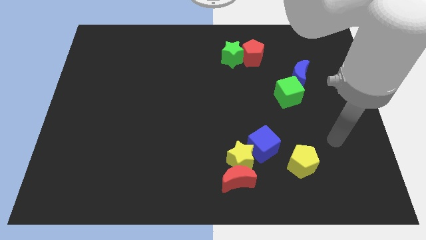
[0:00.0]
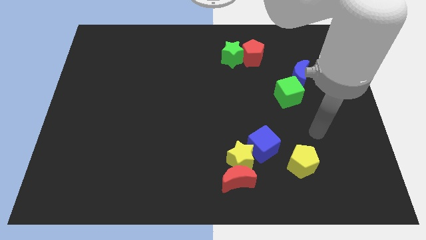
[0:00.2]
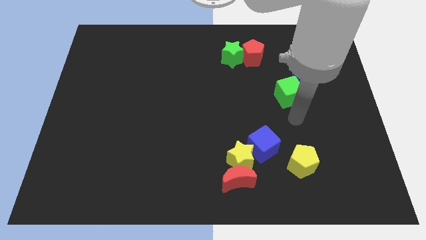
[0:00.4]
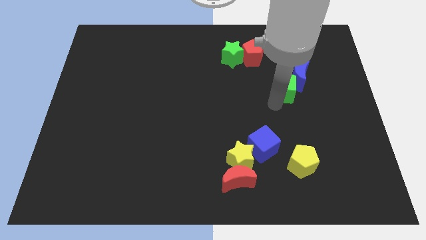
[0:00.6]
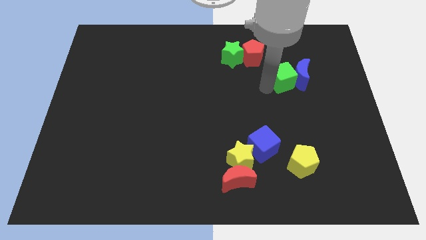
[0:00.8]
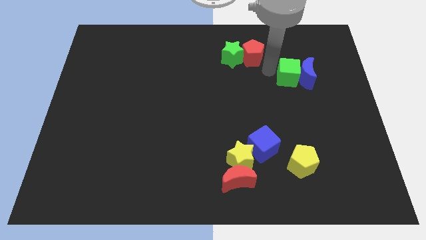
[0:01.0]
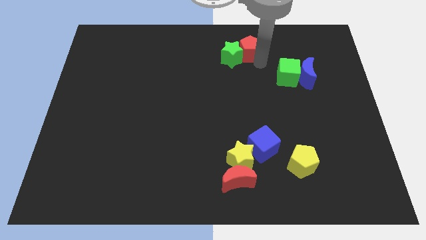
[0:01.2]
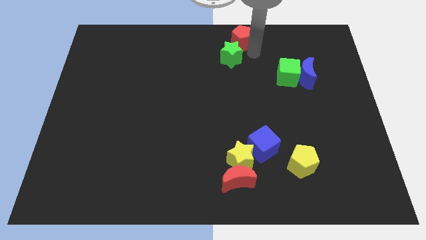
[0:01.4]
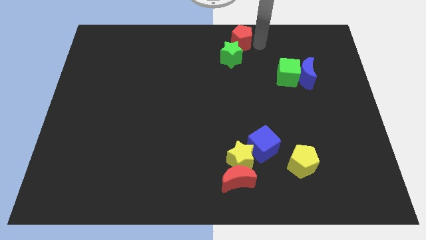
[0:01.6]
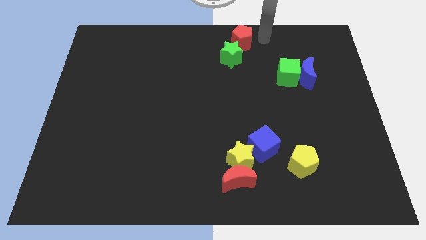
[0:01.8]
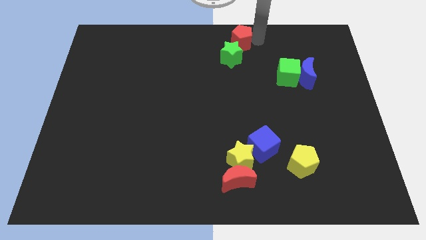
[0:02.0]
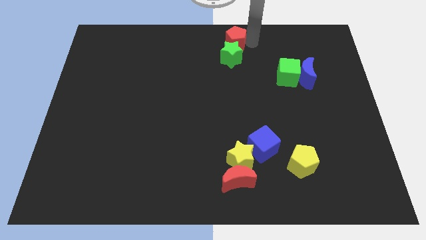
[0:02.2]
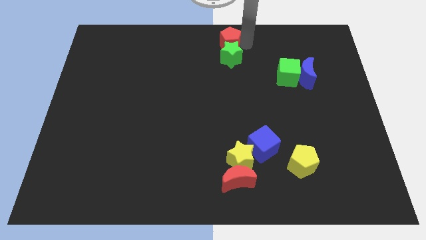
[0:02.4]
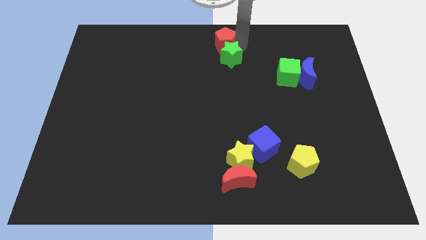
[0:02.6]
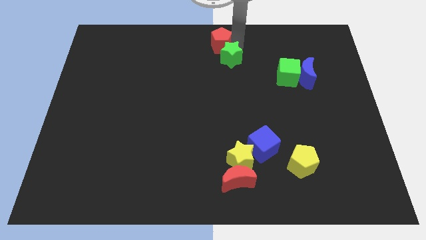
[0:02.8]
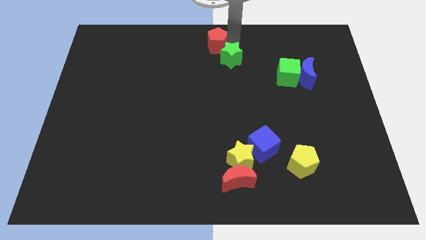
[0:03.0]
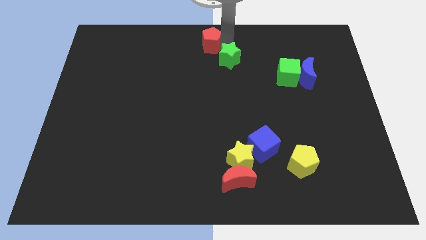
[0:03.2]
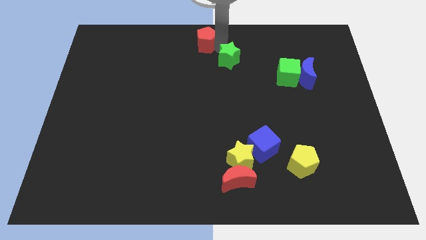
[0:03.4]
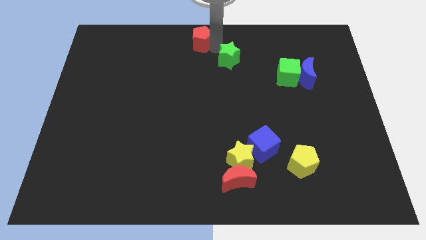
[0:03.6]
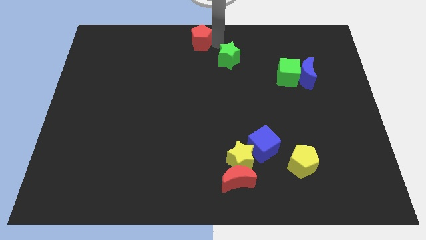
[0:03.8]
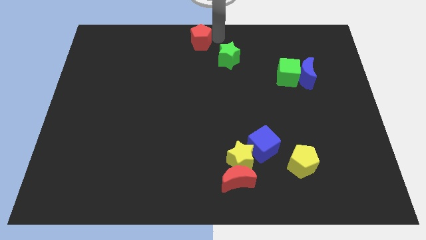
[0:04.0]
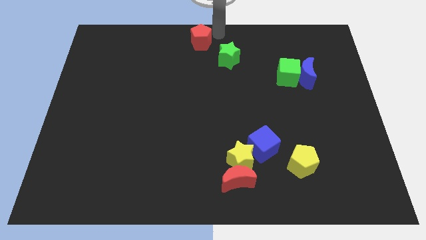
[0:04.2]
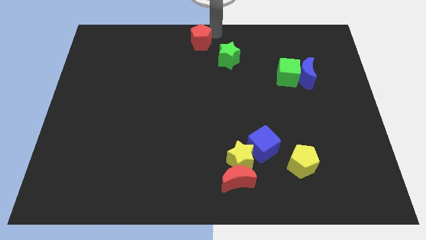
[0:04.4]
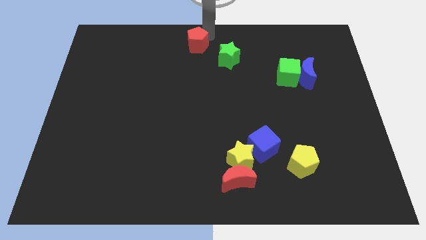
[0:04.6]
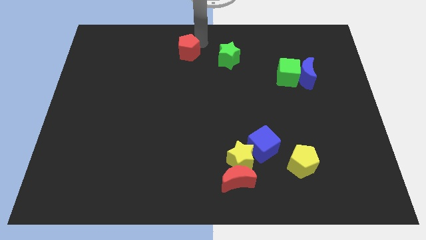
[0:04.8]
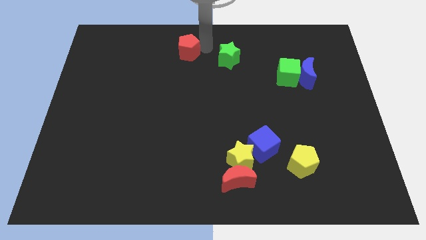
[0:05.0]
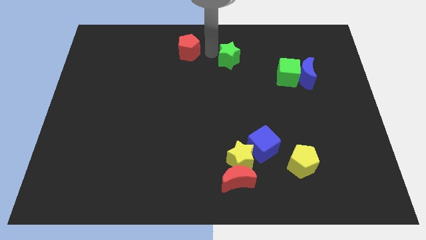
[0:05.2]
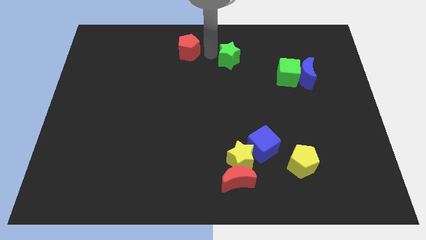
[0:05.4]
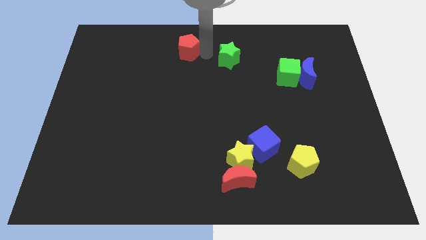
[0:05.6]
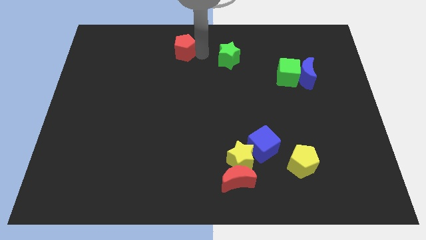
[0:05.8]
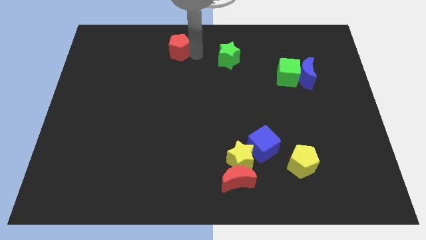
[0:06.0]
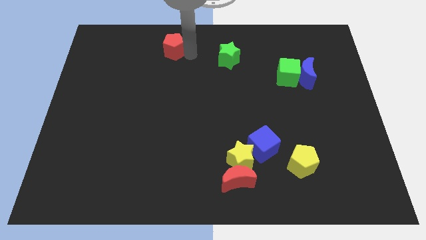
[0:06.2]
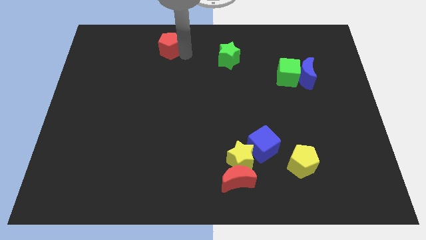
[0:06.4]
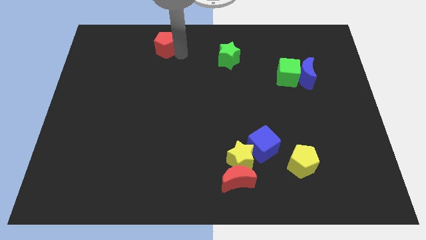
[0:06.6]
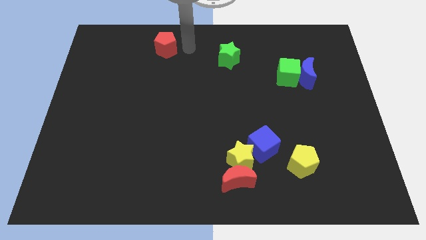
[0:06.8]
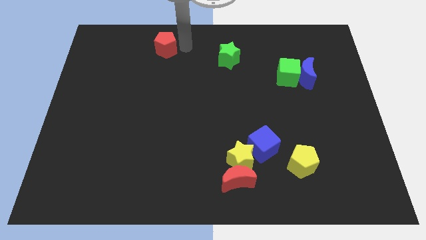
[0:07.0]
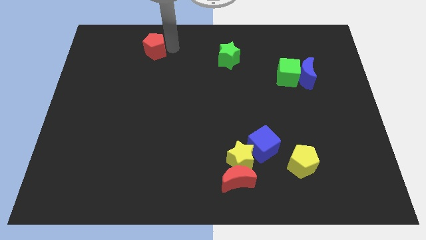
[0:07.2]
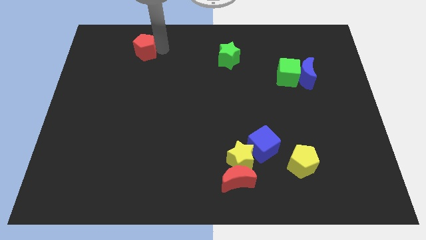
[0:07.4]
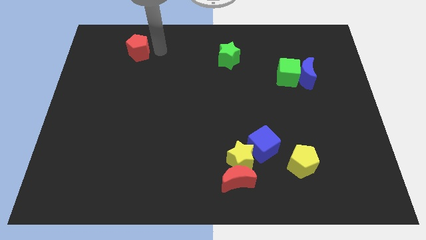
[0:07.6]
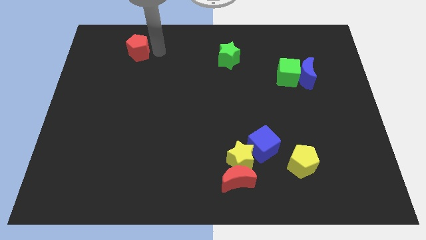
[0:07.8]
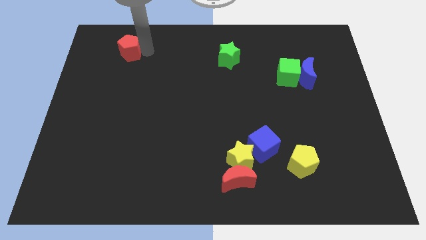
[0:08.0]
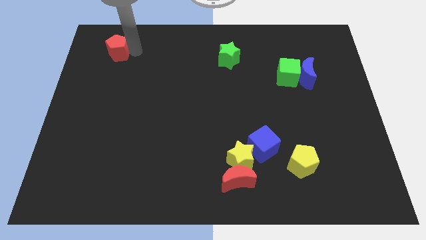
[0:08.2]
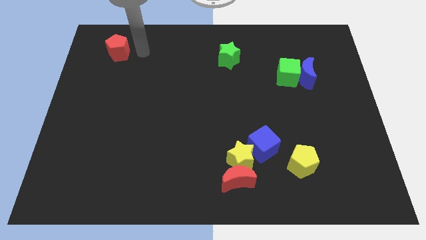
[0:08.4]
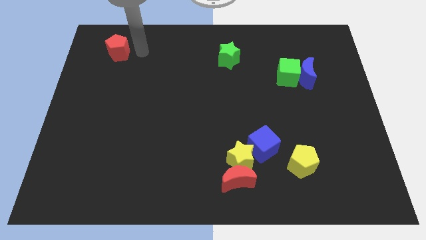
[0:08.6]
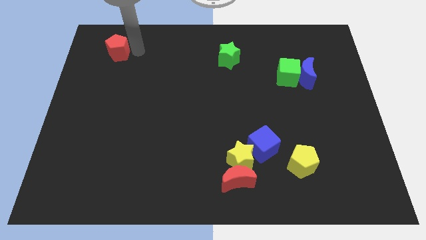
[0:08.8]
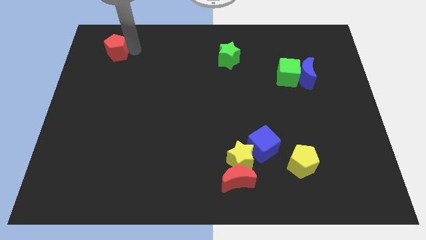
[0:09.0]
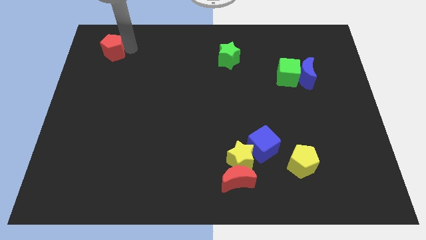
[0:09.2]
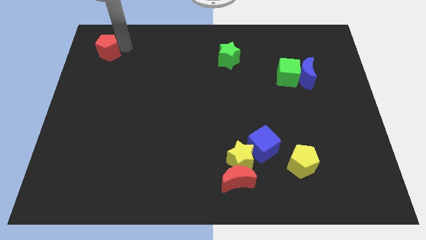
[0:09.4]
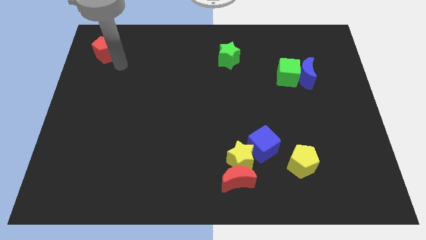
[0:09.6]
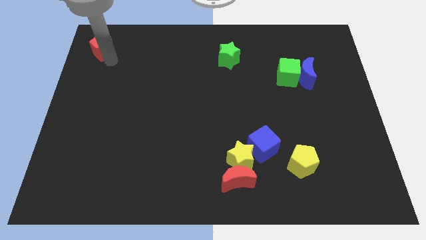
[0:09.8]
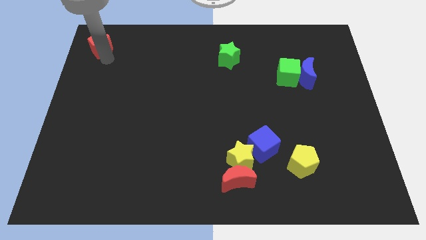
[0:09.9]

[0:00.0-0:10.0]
move the red pentagon to the upper left corner

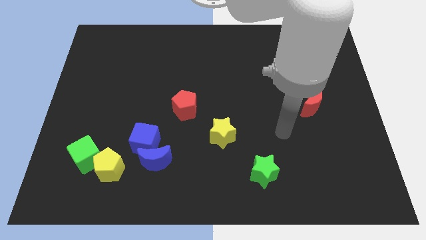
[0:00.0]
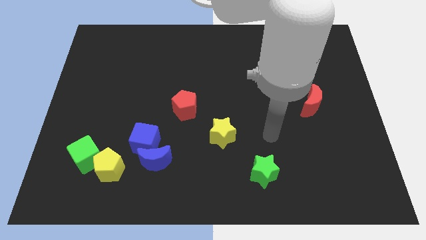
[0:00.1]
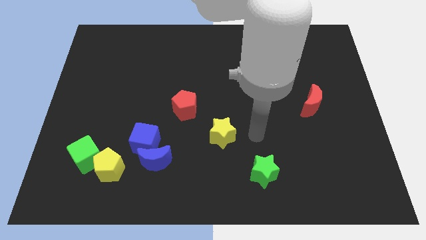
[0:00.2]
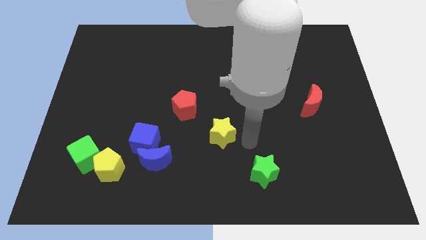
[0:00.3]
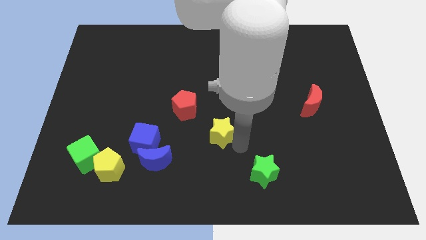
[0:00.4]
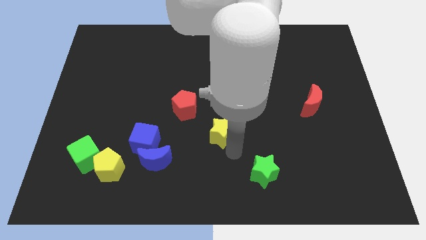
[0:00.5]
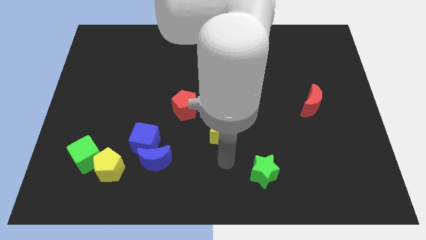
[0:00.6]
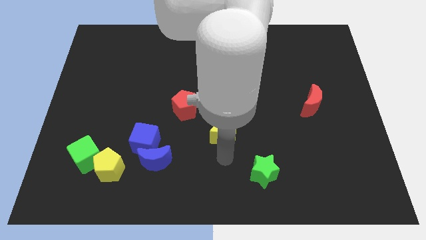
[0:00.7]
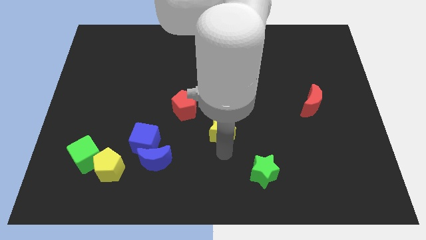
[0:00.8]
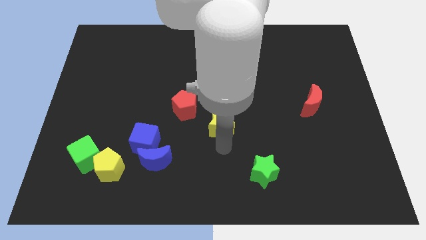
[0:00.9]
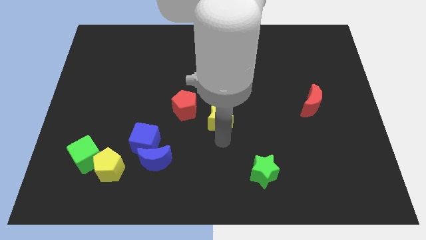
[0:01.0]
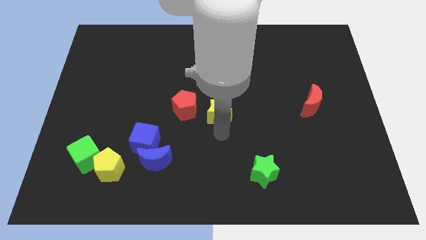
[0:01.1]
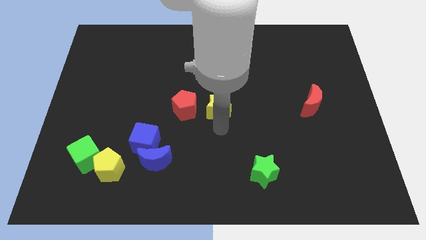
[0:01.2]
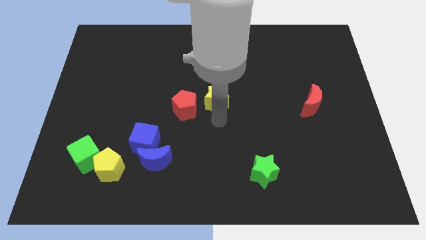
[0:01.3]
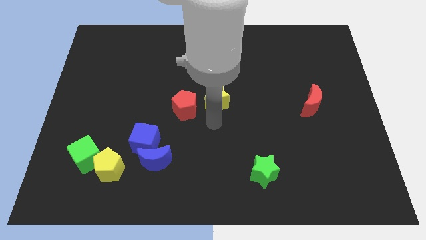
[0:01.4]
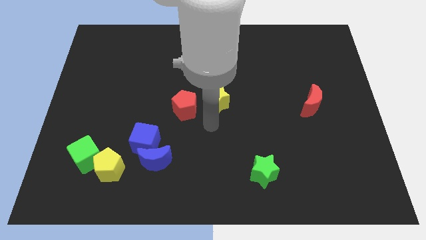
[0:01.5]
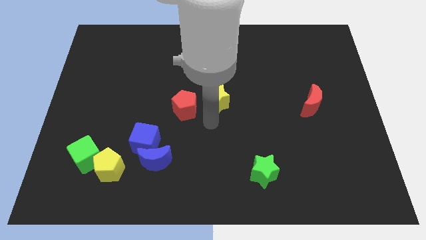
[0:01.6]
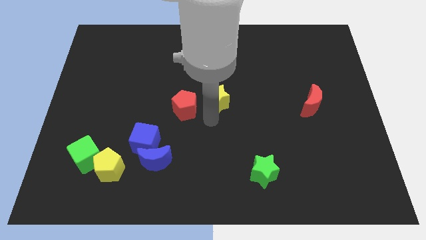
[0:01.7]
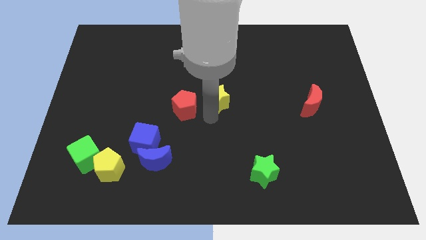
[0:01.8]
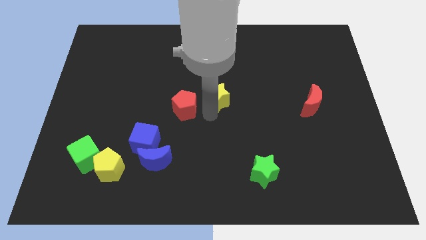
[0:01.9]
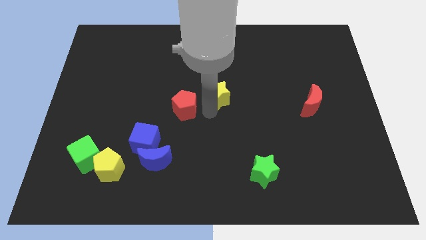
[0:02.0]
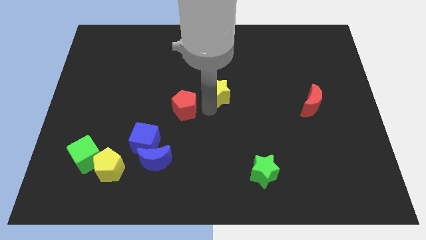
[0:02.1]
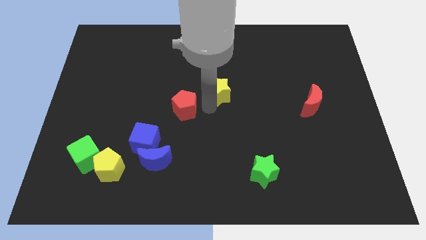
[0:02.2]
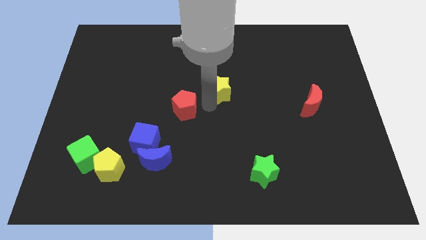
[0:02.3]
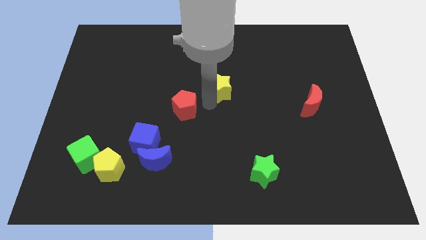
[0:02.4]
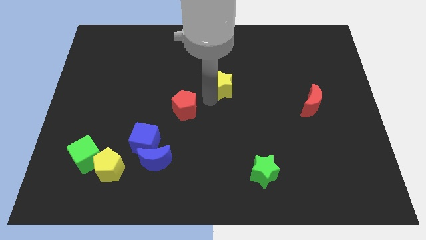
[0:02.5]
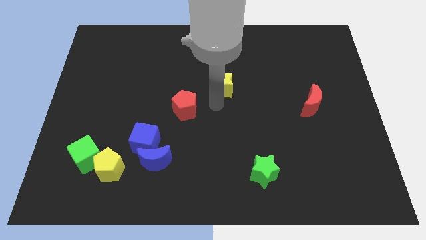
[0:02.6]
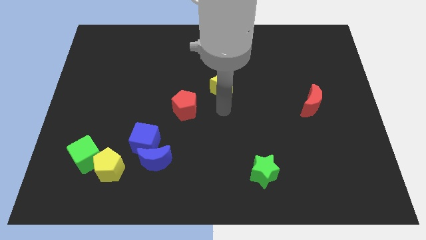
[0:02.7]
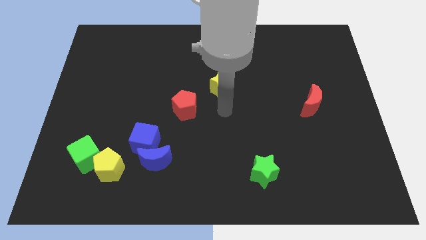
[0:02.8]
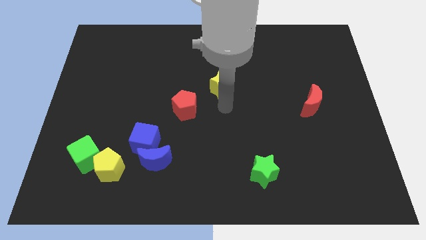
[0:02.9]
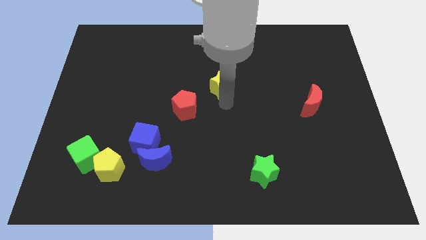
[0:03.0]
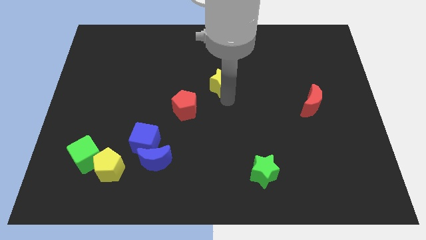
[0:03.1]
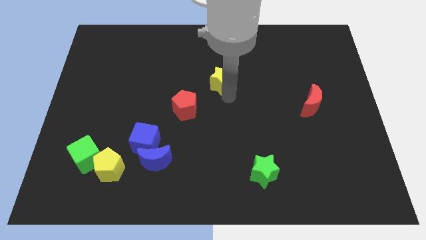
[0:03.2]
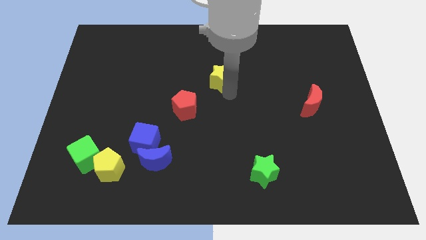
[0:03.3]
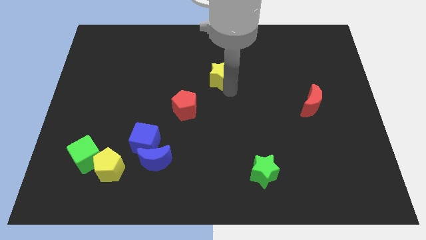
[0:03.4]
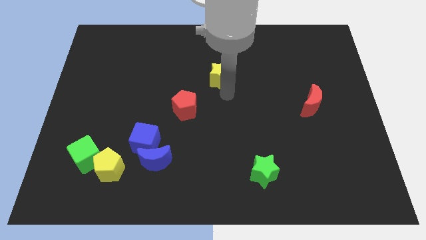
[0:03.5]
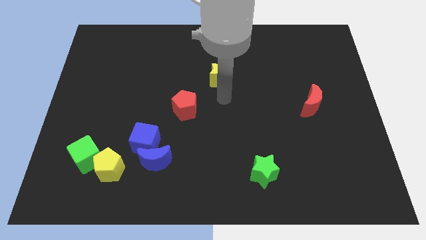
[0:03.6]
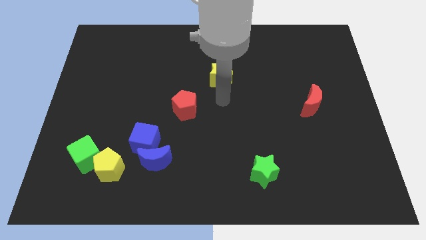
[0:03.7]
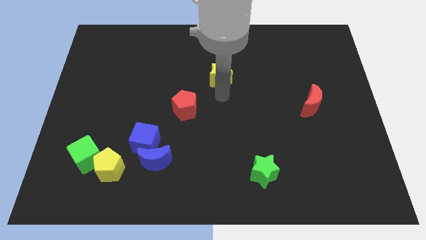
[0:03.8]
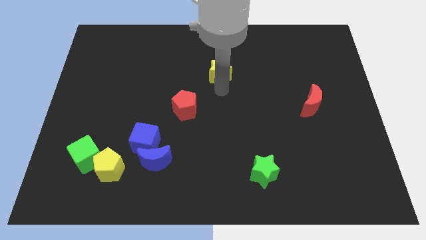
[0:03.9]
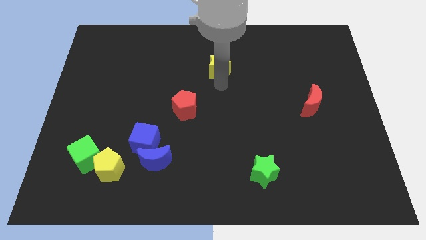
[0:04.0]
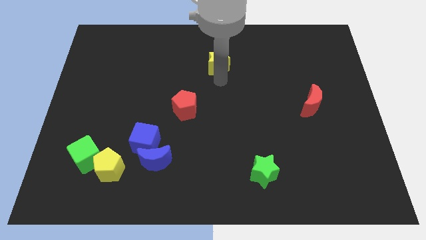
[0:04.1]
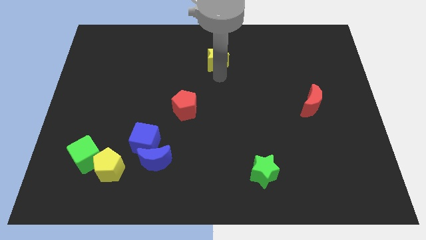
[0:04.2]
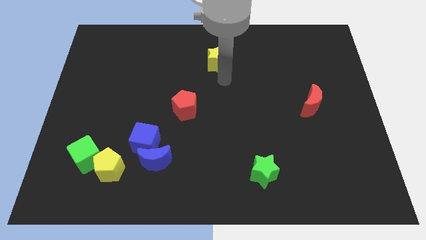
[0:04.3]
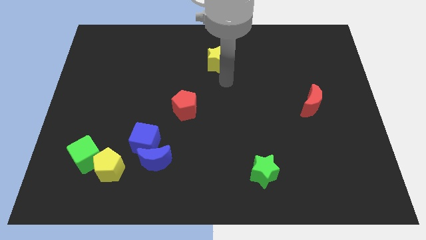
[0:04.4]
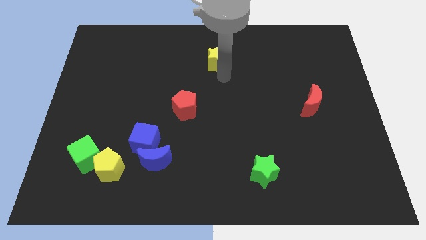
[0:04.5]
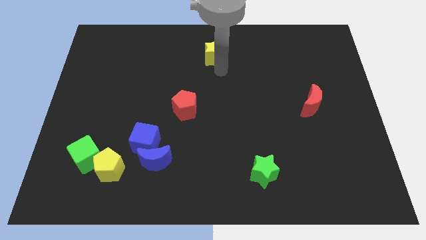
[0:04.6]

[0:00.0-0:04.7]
move the yellow star to the towards your base
